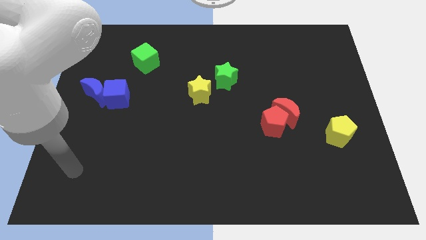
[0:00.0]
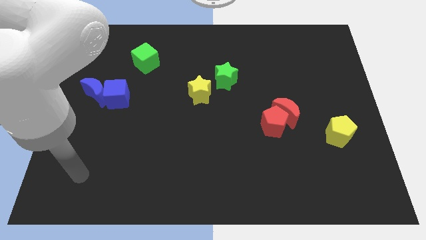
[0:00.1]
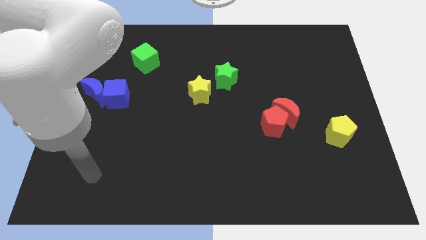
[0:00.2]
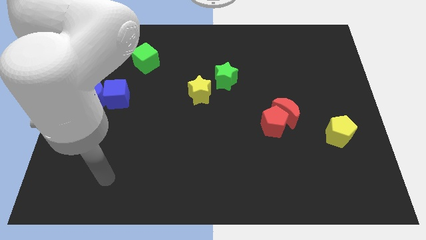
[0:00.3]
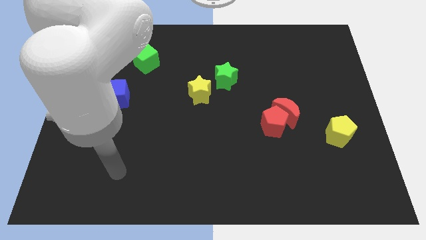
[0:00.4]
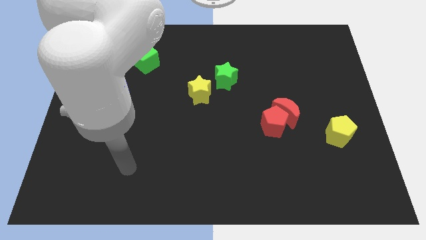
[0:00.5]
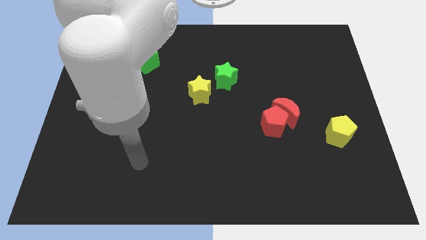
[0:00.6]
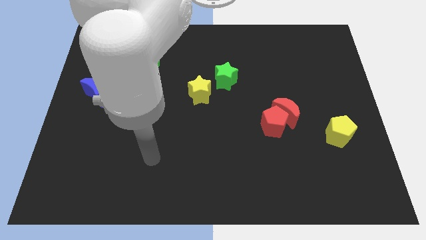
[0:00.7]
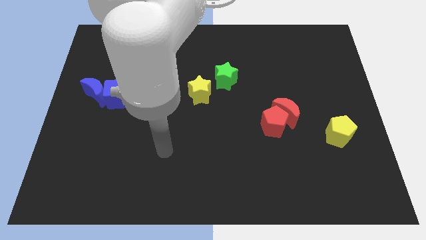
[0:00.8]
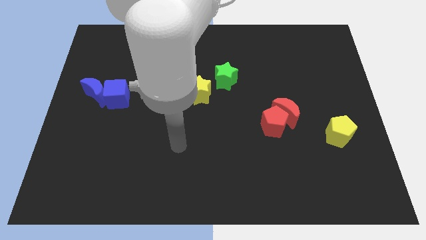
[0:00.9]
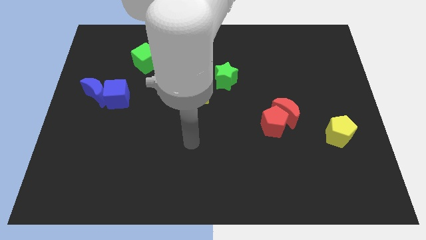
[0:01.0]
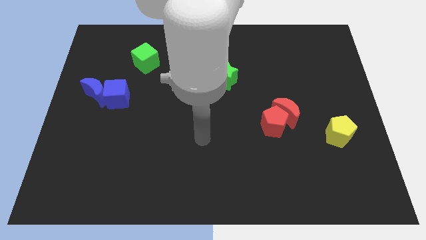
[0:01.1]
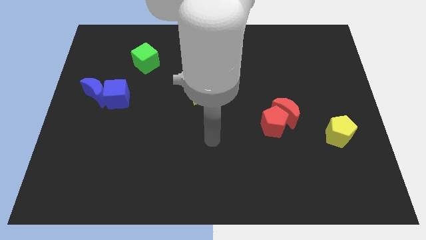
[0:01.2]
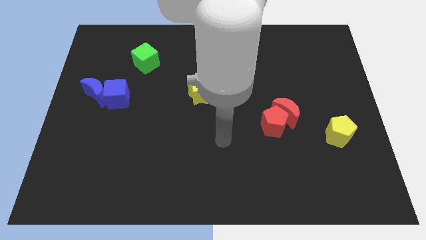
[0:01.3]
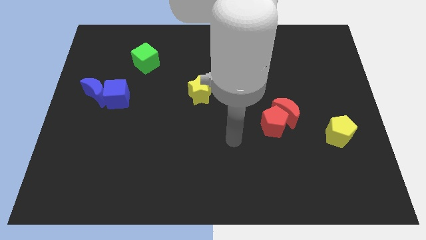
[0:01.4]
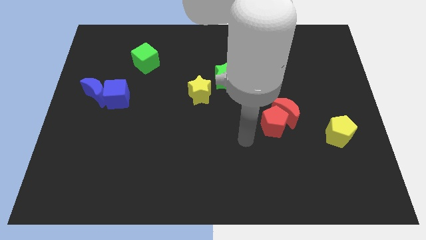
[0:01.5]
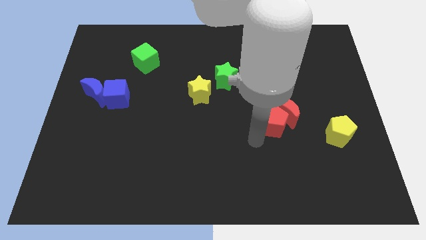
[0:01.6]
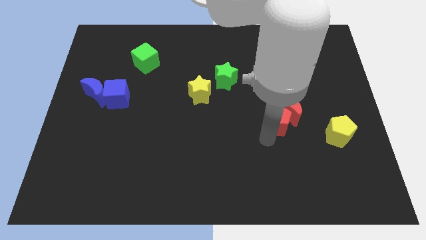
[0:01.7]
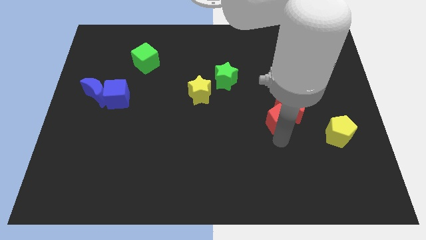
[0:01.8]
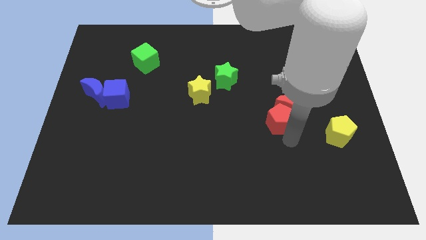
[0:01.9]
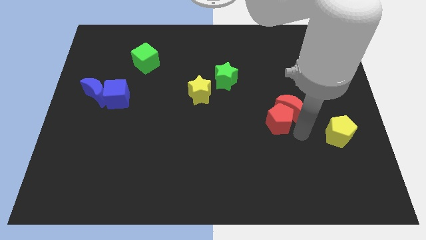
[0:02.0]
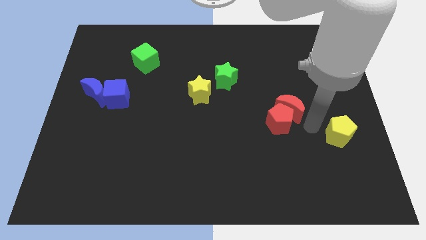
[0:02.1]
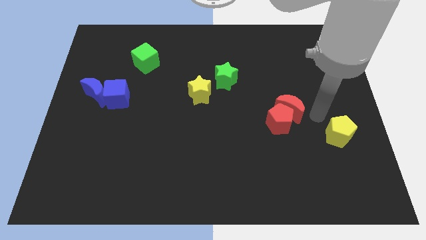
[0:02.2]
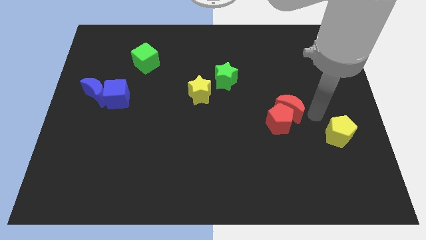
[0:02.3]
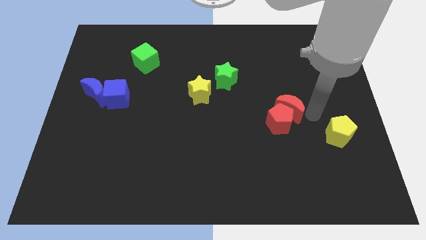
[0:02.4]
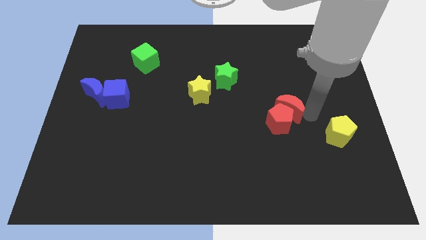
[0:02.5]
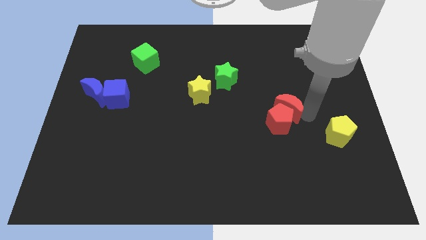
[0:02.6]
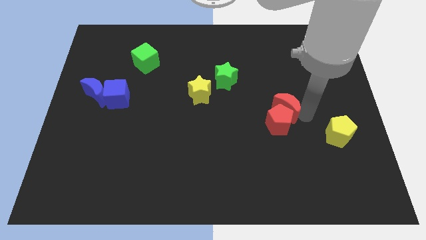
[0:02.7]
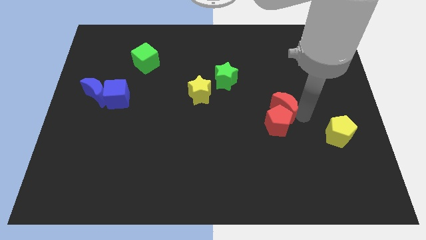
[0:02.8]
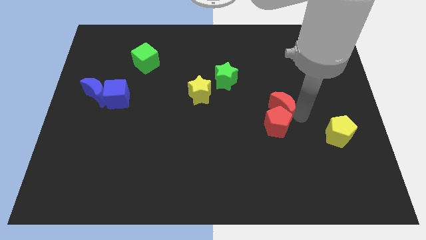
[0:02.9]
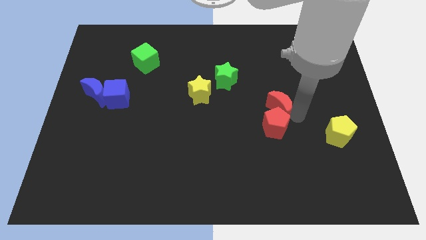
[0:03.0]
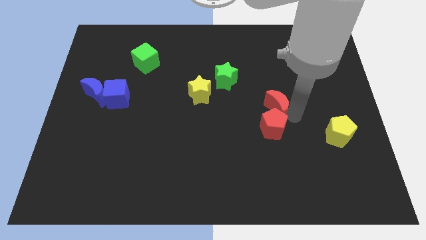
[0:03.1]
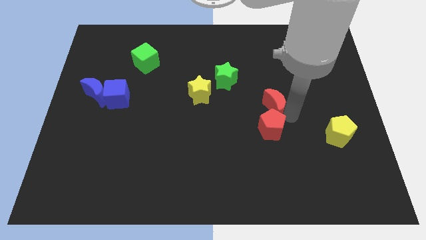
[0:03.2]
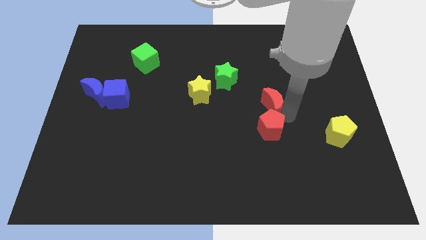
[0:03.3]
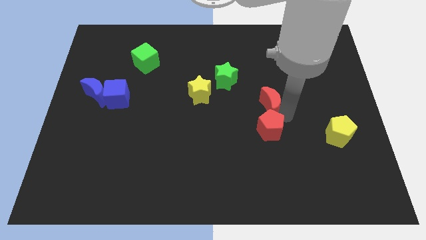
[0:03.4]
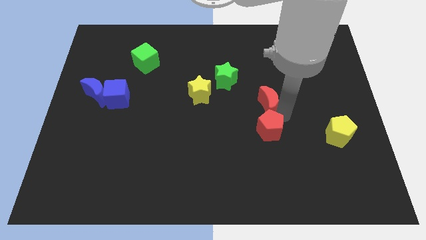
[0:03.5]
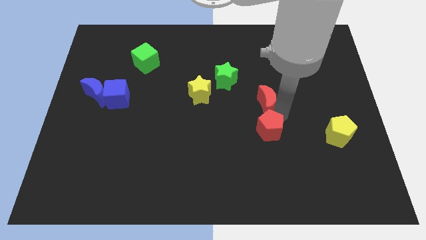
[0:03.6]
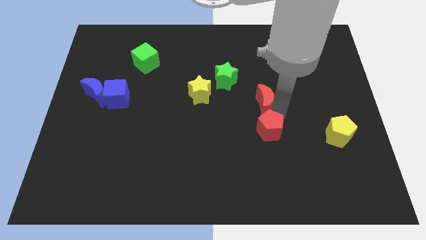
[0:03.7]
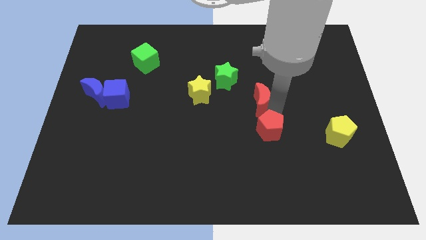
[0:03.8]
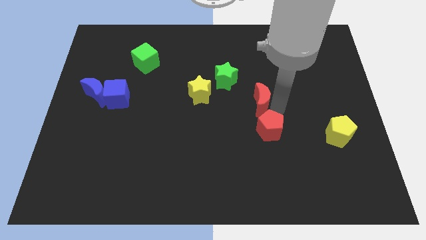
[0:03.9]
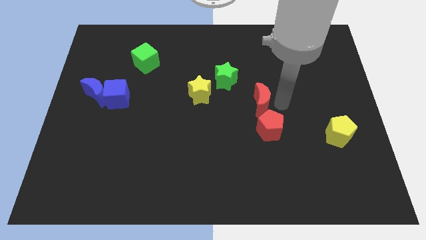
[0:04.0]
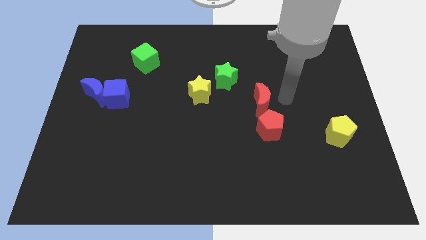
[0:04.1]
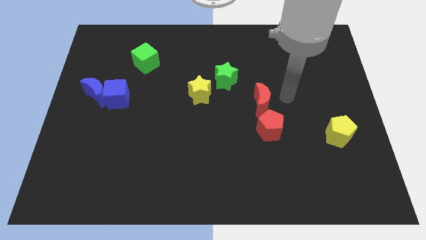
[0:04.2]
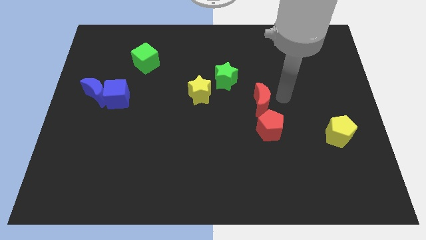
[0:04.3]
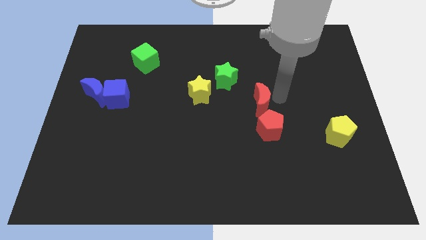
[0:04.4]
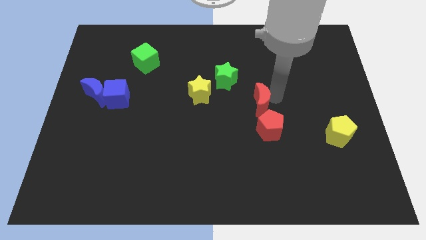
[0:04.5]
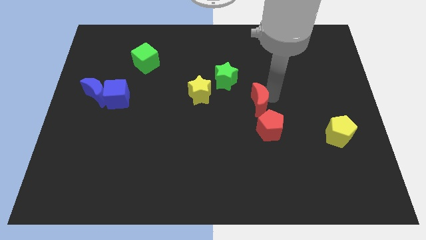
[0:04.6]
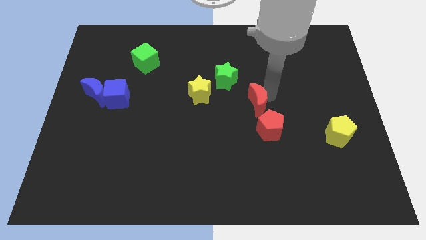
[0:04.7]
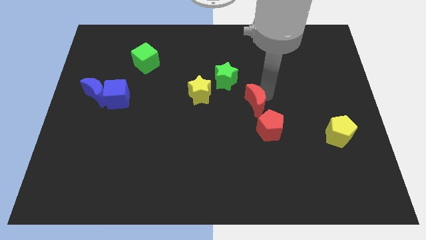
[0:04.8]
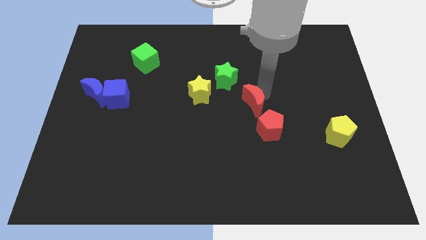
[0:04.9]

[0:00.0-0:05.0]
push the red moon left slightly

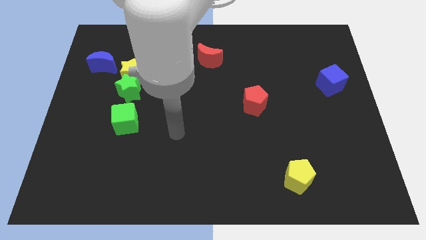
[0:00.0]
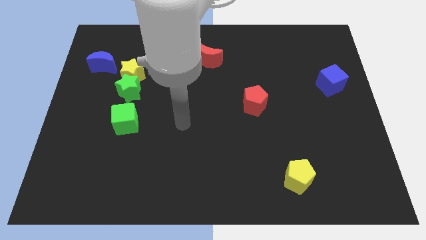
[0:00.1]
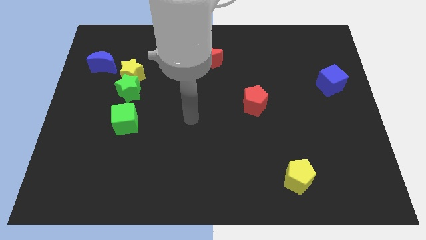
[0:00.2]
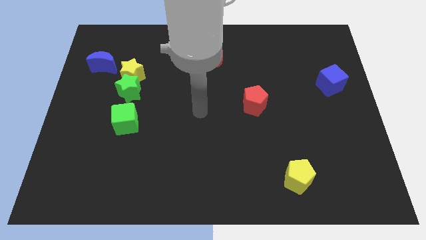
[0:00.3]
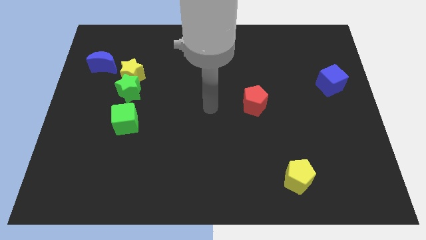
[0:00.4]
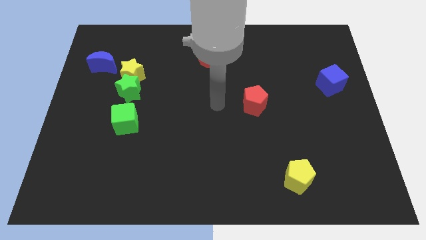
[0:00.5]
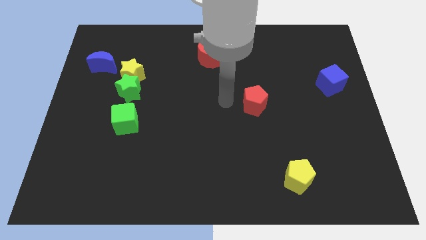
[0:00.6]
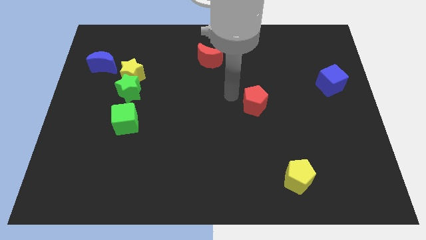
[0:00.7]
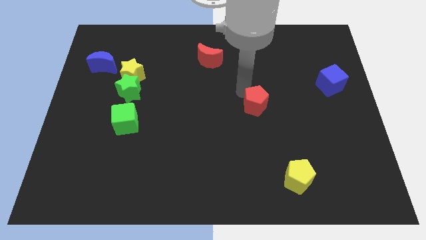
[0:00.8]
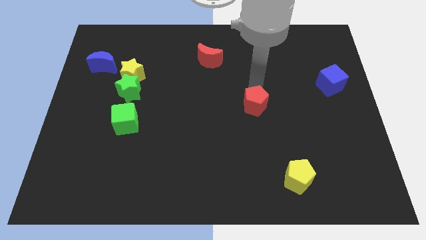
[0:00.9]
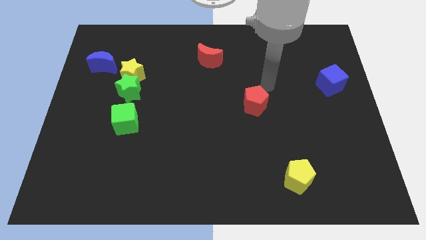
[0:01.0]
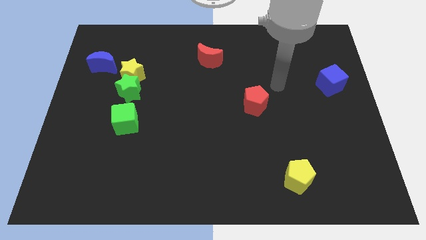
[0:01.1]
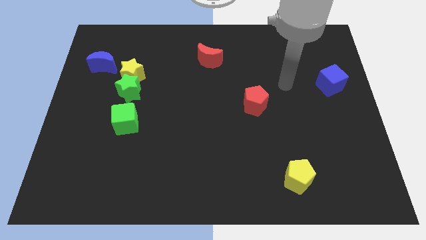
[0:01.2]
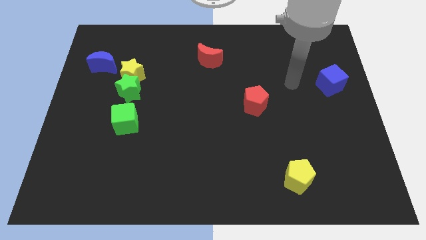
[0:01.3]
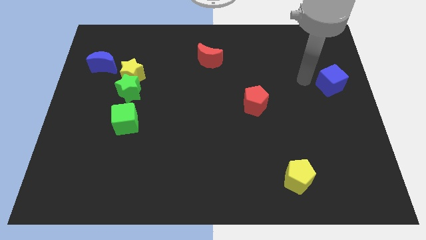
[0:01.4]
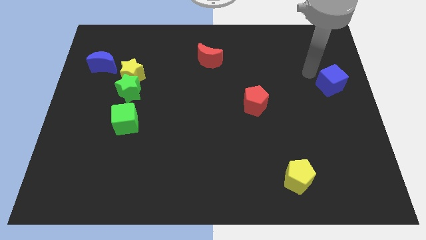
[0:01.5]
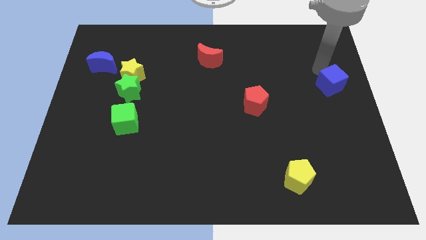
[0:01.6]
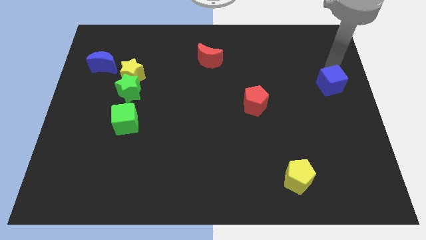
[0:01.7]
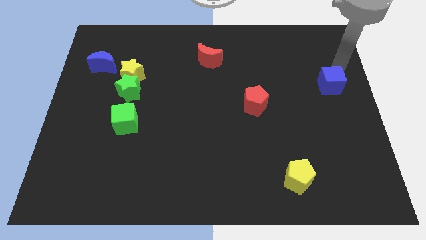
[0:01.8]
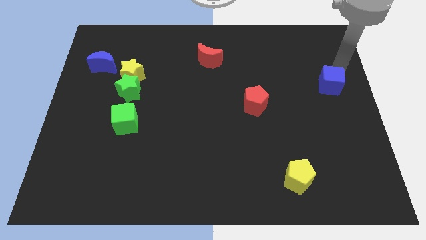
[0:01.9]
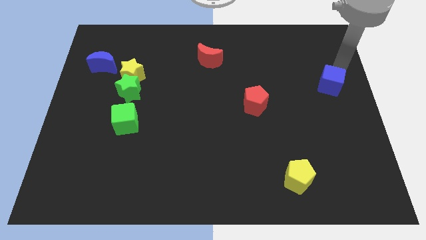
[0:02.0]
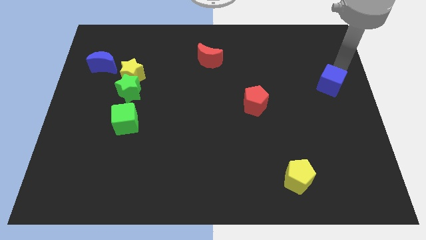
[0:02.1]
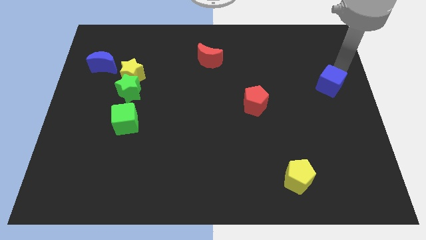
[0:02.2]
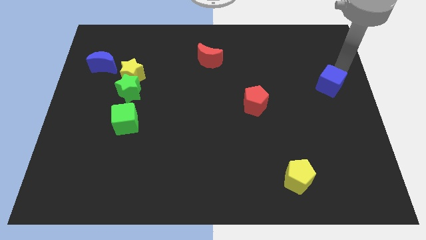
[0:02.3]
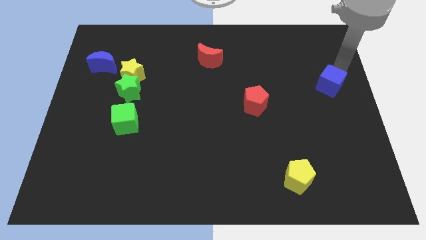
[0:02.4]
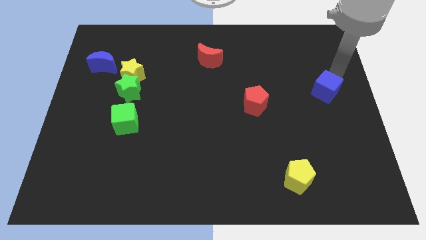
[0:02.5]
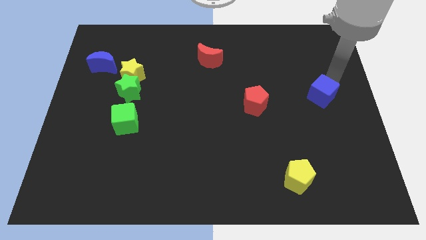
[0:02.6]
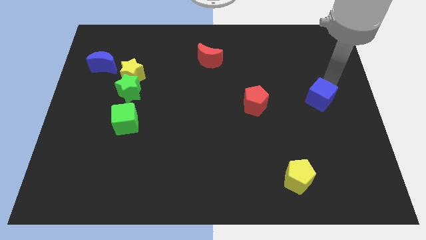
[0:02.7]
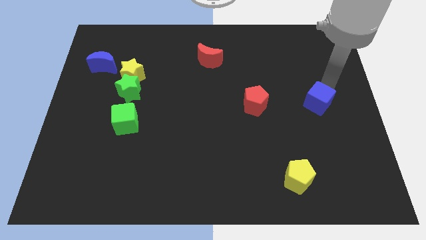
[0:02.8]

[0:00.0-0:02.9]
slightly push the blue cube diagonally downwards and to the left
